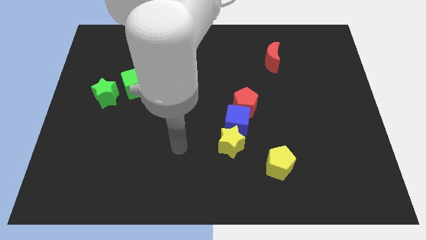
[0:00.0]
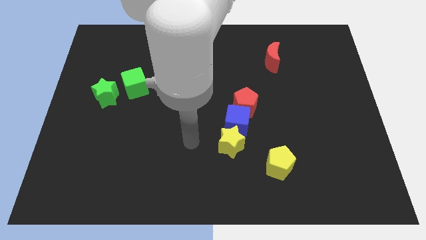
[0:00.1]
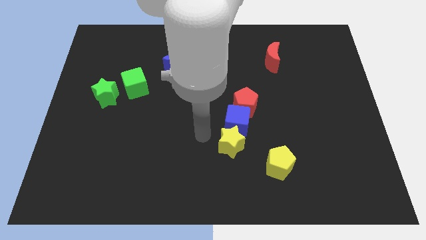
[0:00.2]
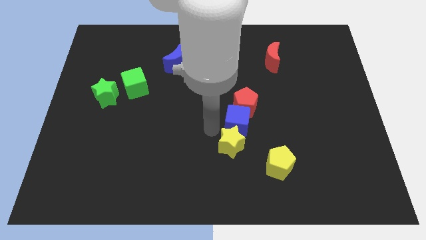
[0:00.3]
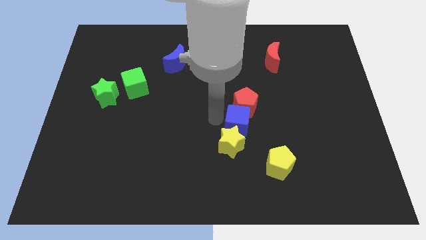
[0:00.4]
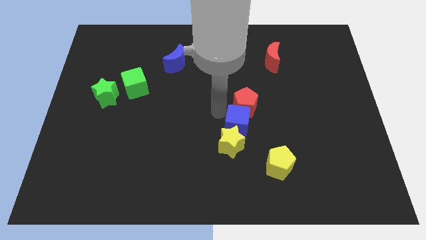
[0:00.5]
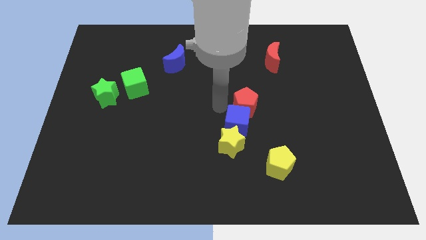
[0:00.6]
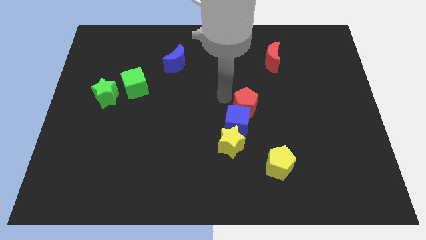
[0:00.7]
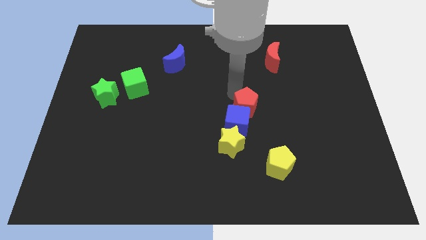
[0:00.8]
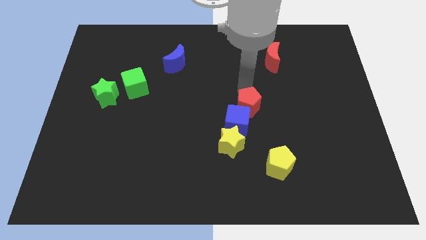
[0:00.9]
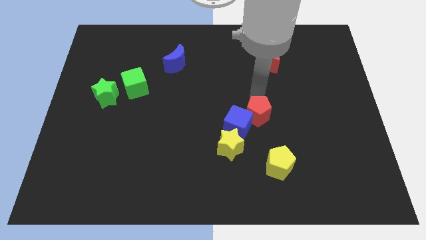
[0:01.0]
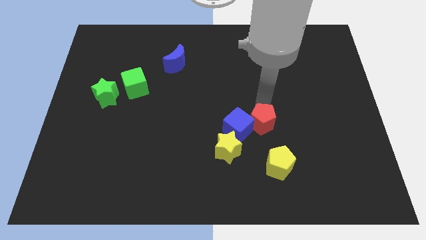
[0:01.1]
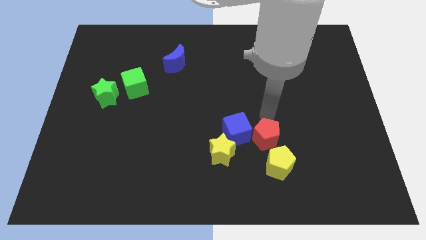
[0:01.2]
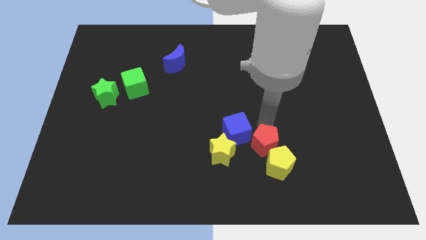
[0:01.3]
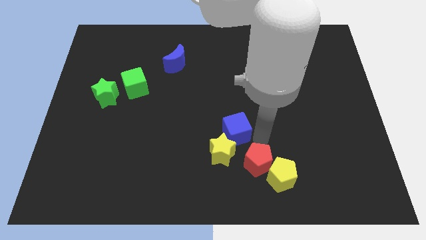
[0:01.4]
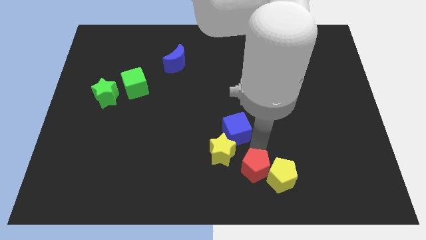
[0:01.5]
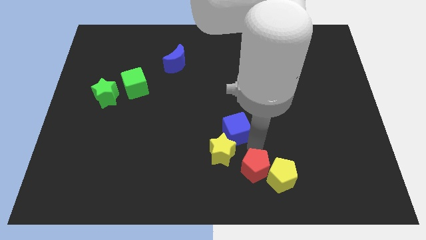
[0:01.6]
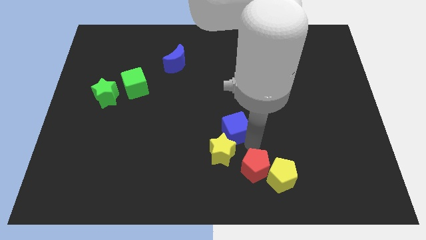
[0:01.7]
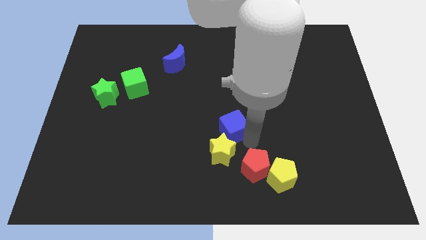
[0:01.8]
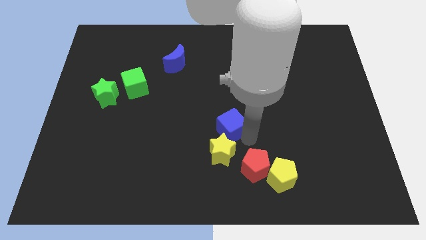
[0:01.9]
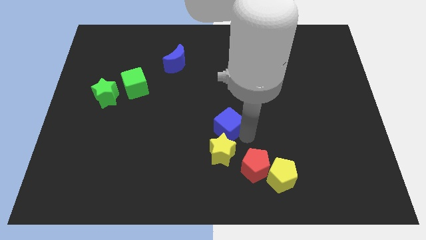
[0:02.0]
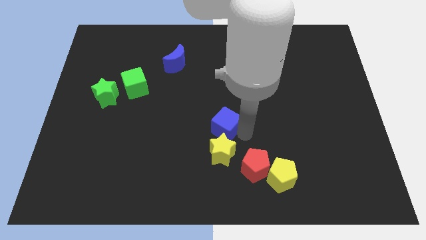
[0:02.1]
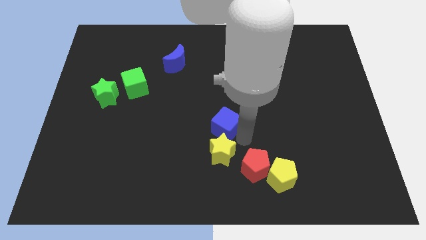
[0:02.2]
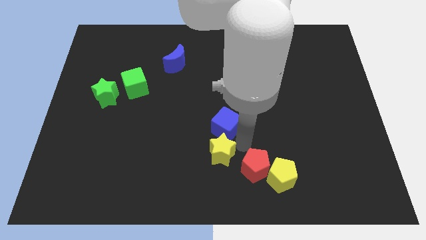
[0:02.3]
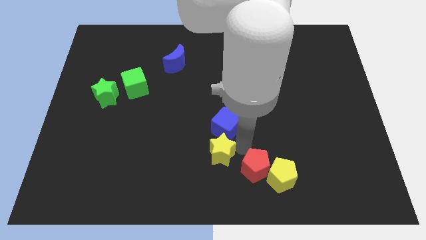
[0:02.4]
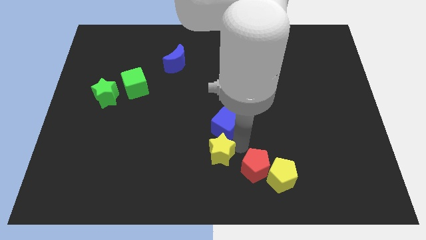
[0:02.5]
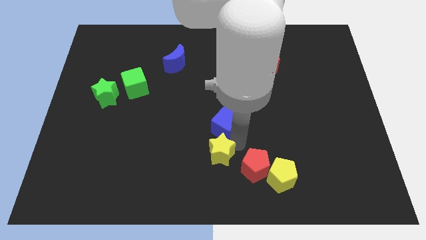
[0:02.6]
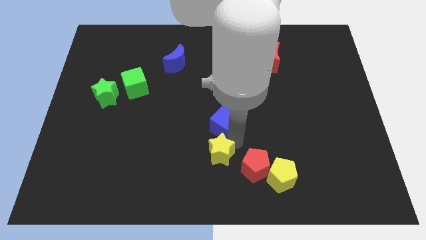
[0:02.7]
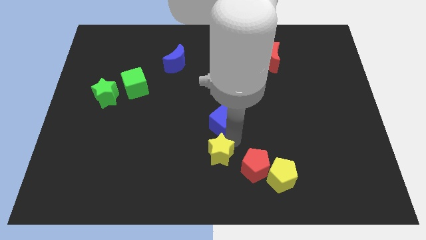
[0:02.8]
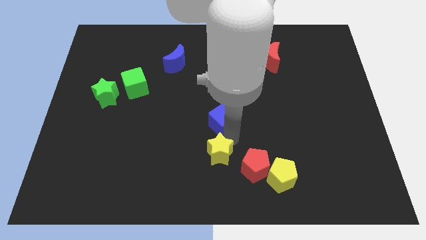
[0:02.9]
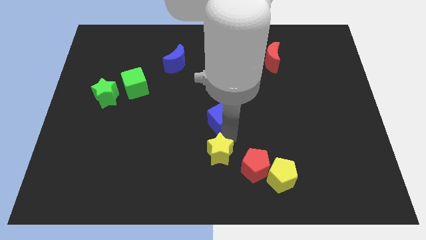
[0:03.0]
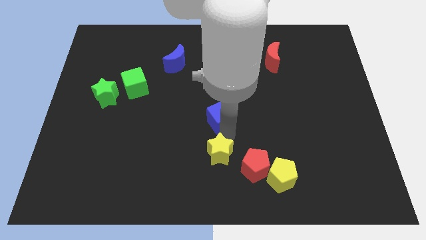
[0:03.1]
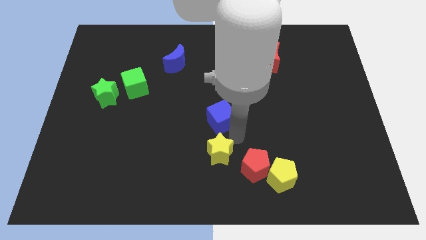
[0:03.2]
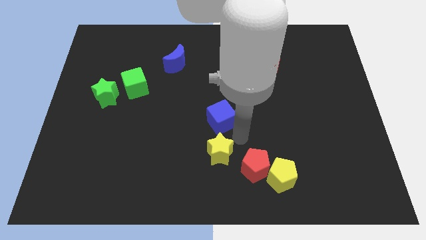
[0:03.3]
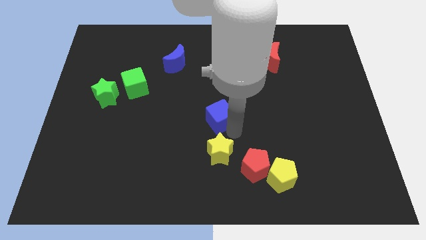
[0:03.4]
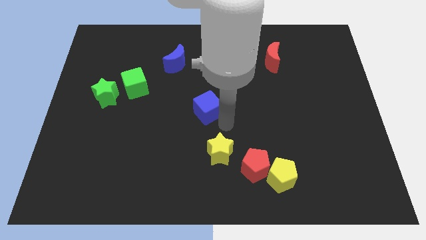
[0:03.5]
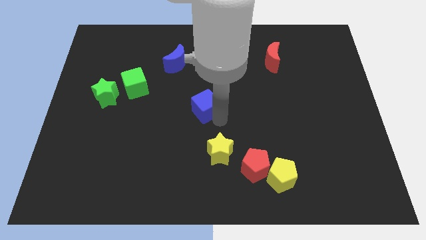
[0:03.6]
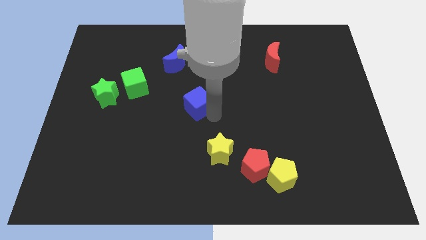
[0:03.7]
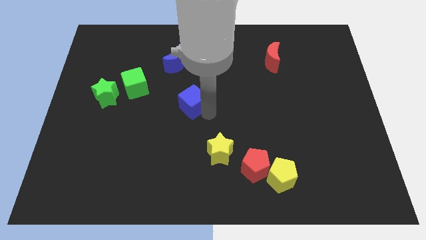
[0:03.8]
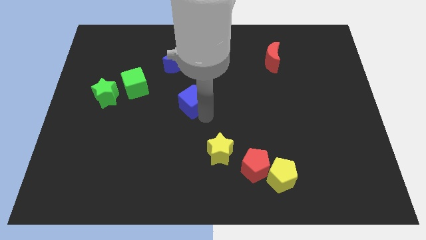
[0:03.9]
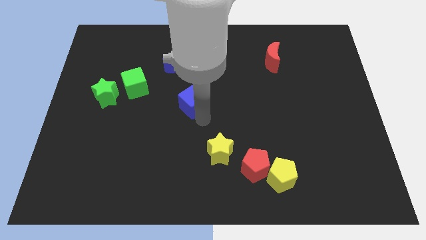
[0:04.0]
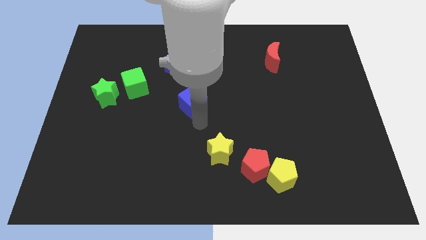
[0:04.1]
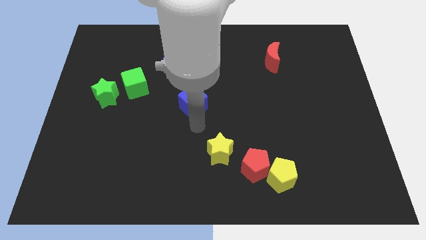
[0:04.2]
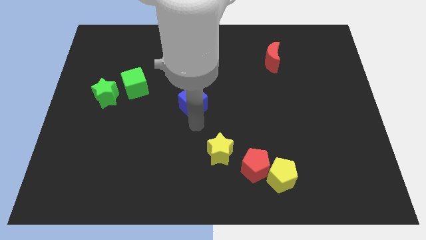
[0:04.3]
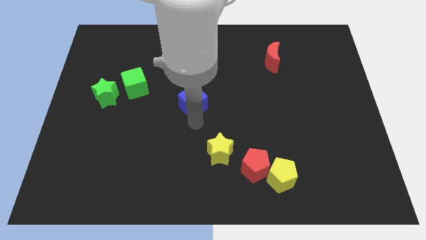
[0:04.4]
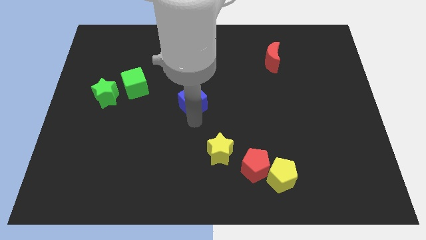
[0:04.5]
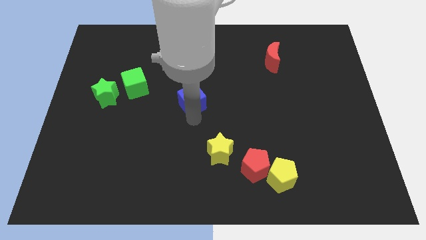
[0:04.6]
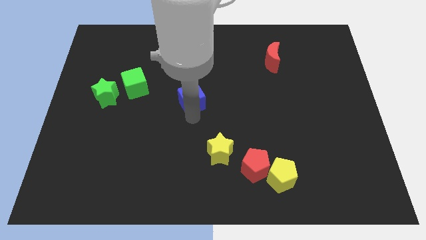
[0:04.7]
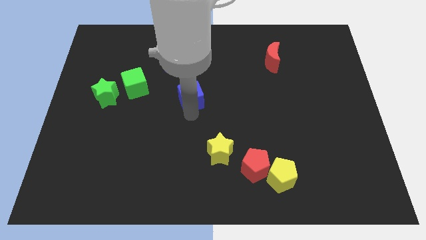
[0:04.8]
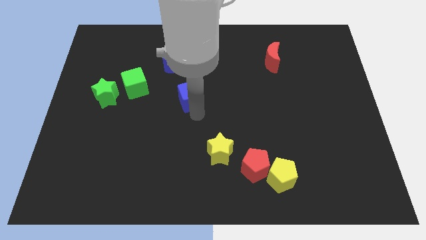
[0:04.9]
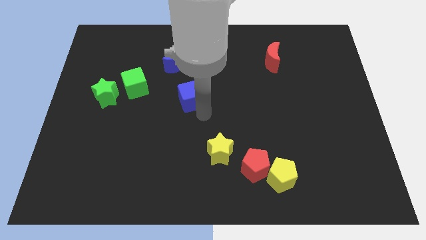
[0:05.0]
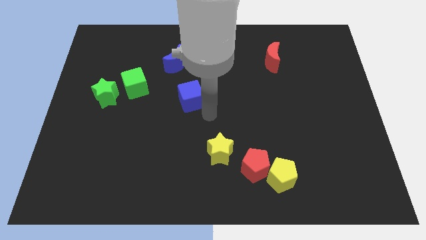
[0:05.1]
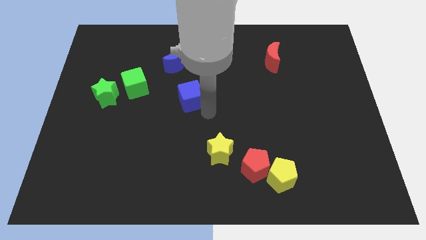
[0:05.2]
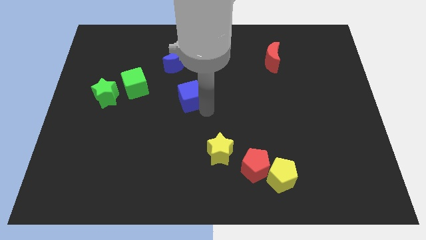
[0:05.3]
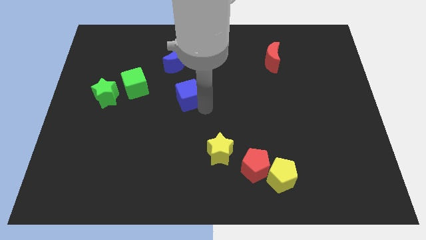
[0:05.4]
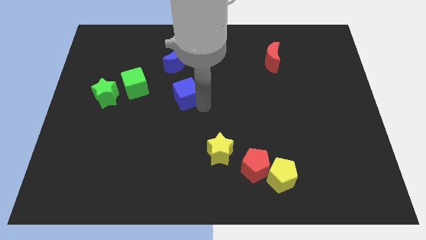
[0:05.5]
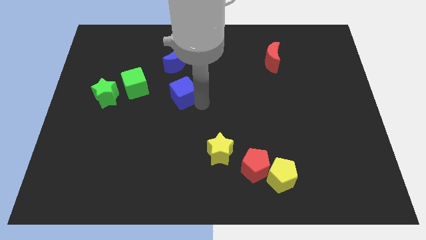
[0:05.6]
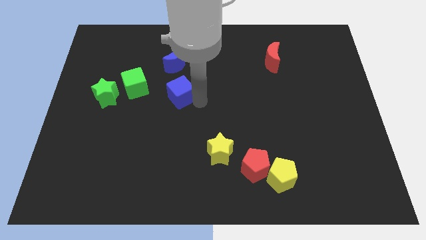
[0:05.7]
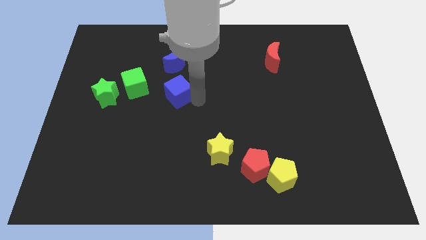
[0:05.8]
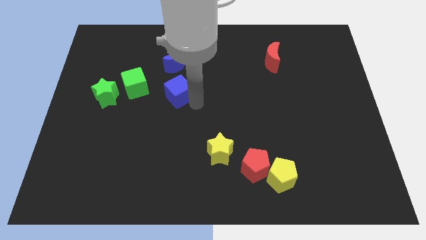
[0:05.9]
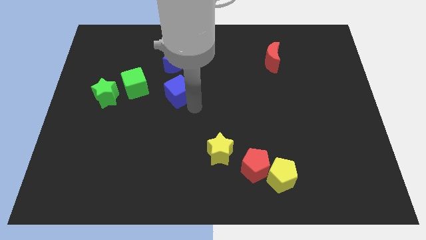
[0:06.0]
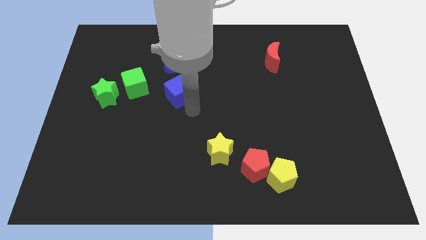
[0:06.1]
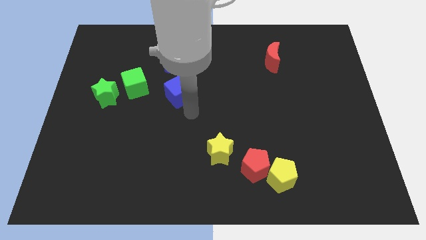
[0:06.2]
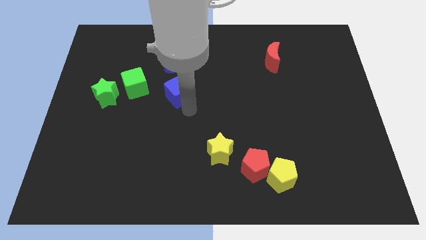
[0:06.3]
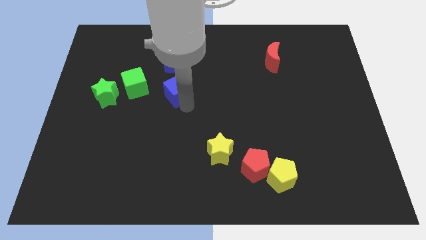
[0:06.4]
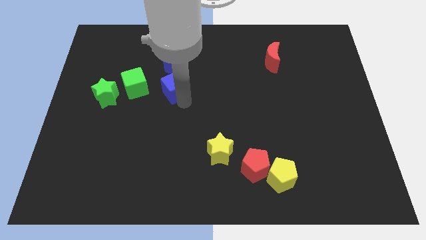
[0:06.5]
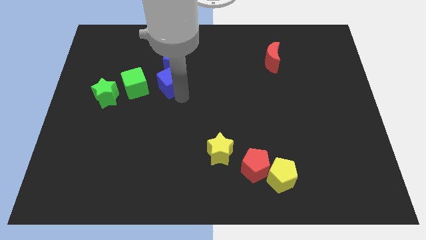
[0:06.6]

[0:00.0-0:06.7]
move the blue cube diagonally down and to the left of the blue moon

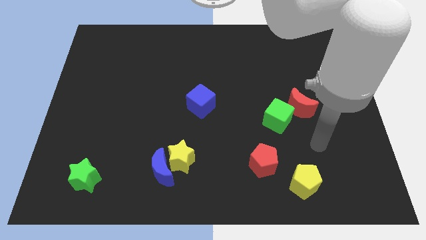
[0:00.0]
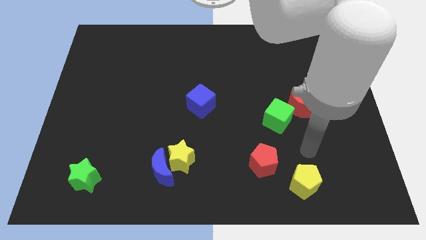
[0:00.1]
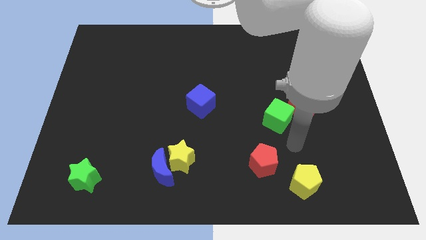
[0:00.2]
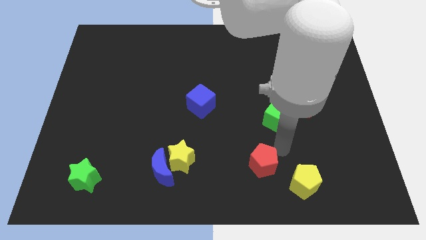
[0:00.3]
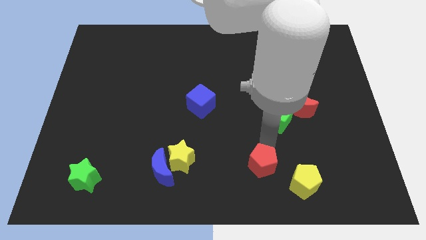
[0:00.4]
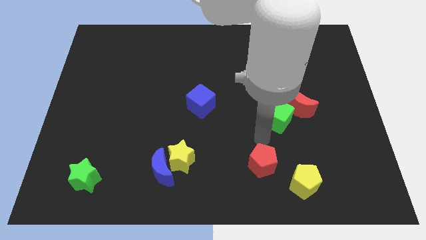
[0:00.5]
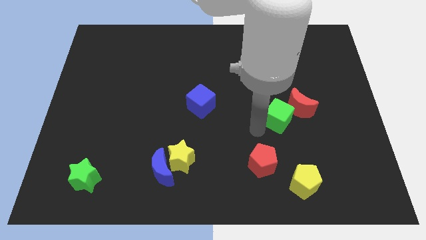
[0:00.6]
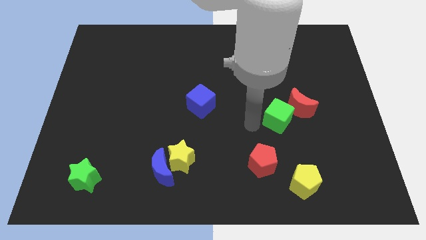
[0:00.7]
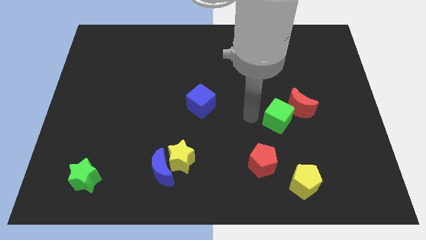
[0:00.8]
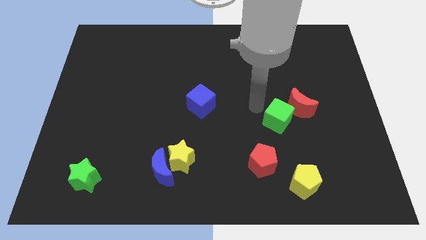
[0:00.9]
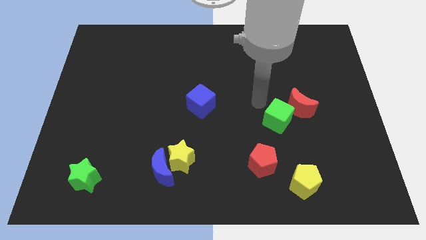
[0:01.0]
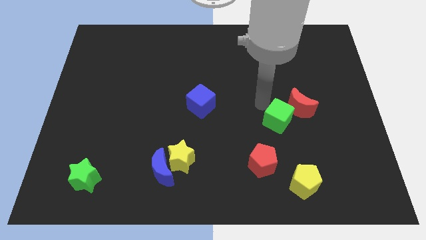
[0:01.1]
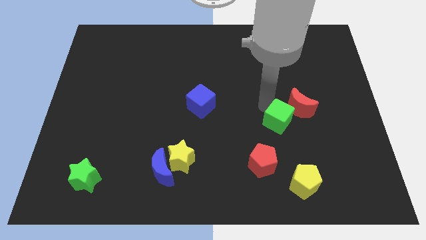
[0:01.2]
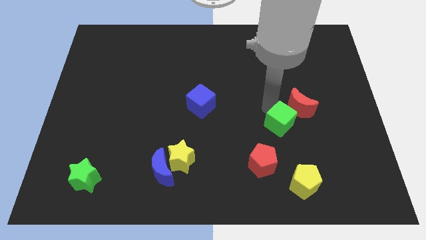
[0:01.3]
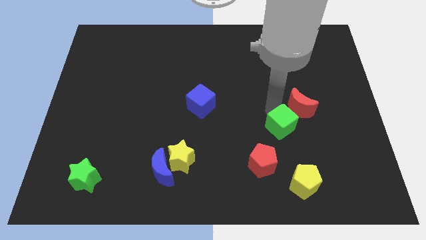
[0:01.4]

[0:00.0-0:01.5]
slide the green cube to the bottom of the red moon
